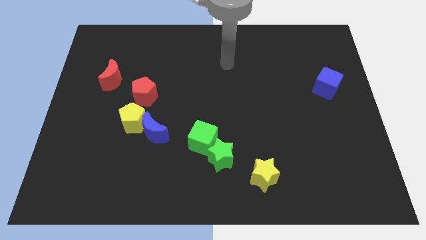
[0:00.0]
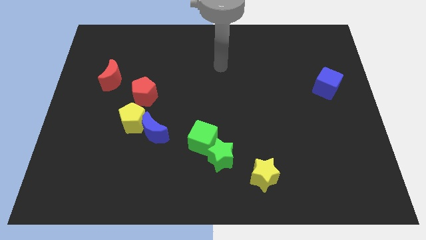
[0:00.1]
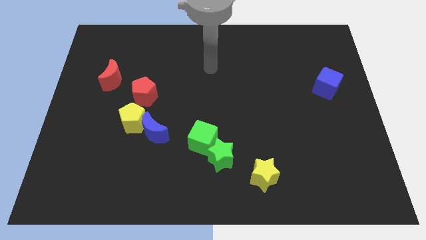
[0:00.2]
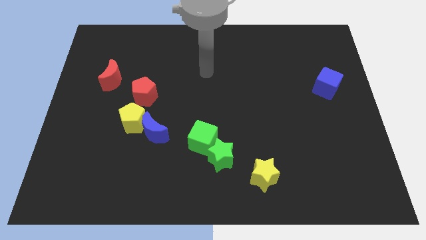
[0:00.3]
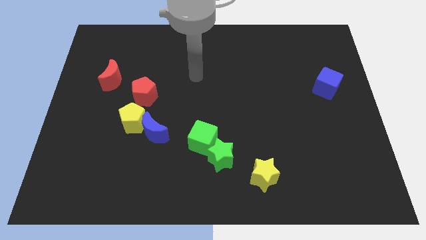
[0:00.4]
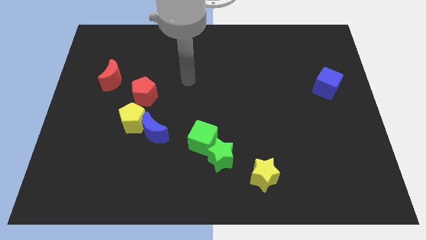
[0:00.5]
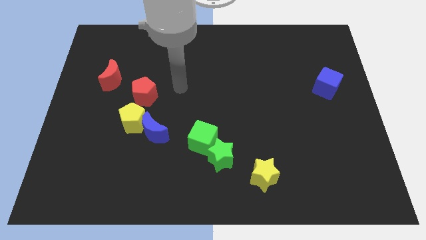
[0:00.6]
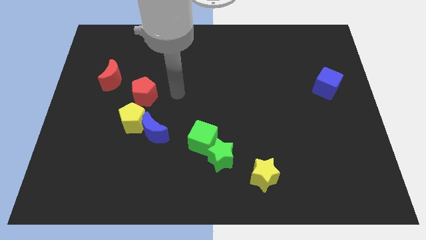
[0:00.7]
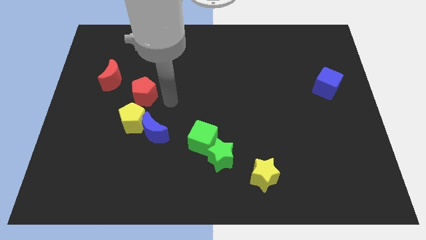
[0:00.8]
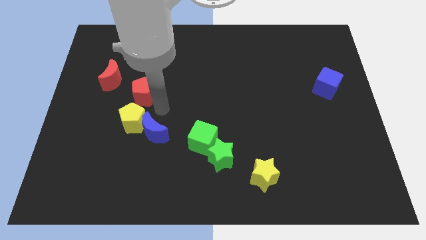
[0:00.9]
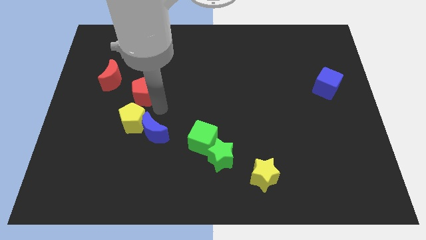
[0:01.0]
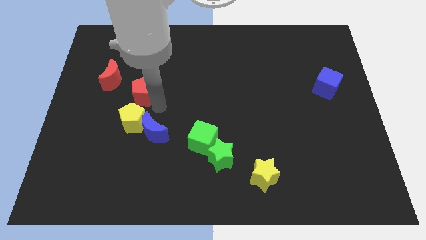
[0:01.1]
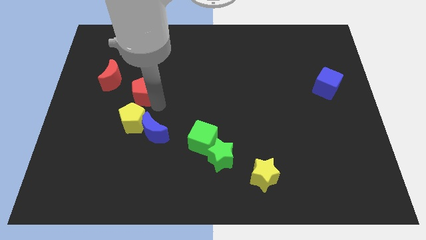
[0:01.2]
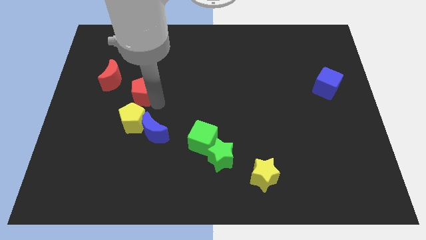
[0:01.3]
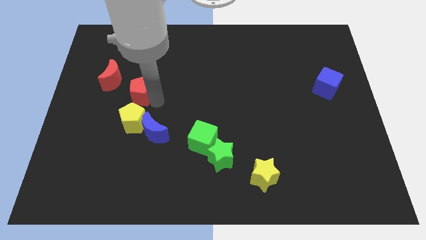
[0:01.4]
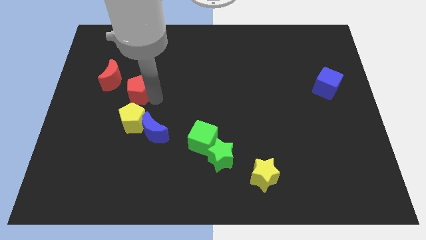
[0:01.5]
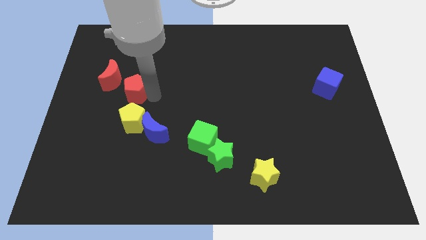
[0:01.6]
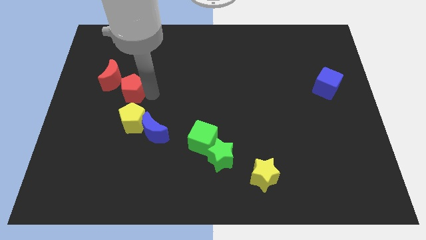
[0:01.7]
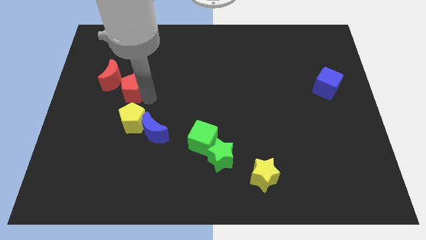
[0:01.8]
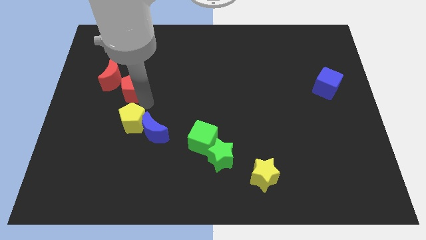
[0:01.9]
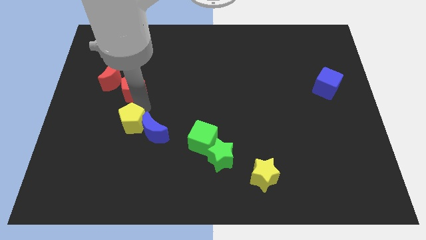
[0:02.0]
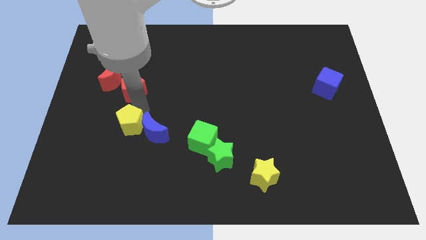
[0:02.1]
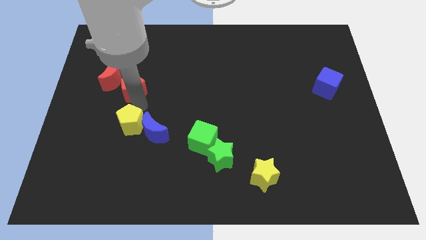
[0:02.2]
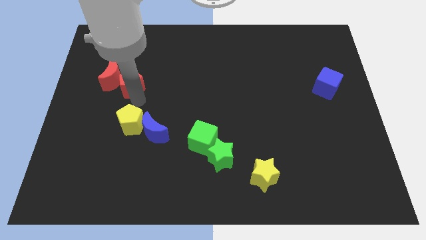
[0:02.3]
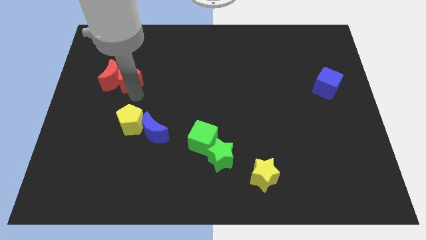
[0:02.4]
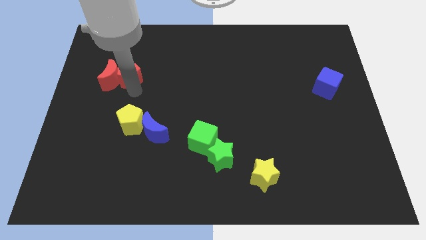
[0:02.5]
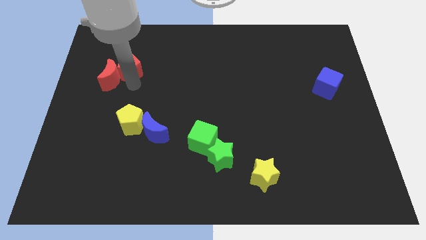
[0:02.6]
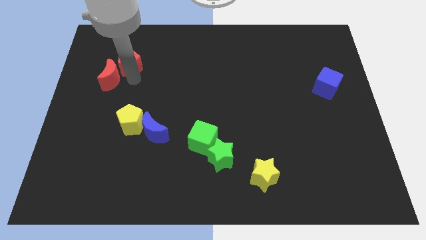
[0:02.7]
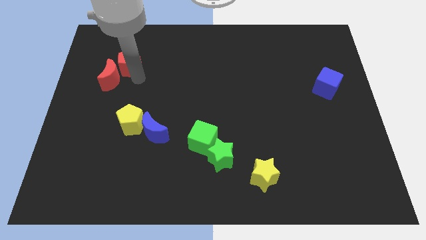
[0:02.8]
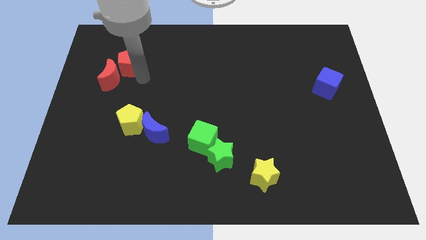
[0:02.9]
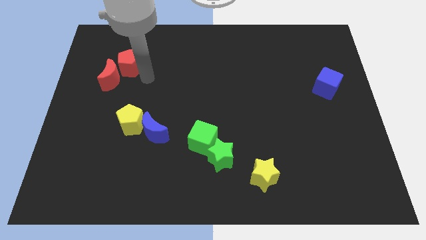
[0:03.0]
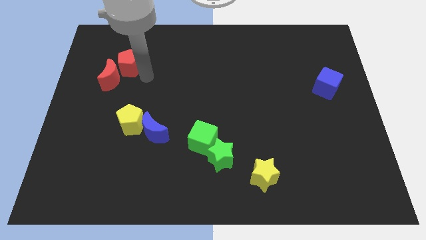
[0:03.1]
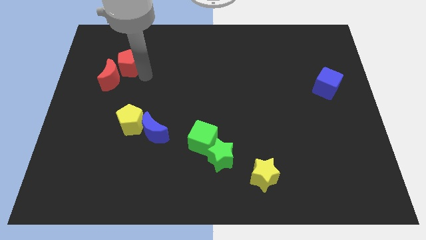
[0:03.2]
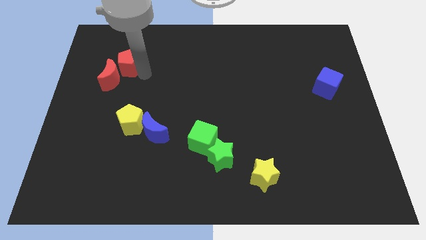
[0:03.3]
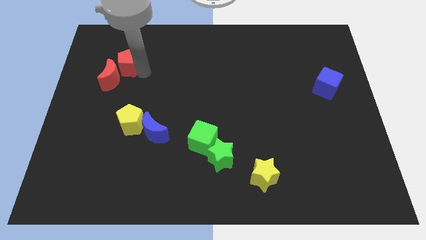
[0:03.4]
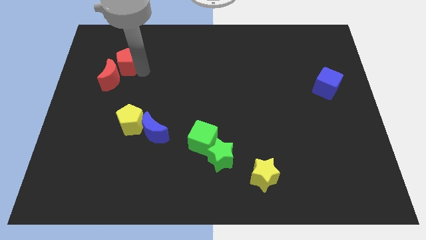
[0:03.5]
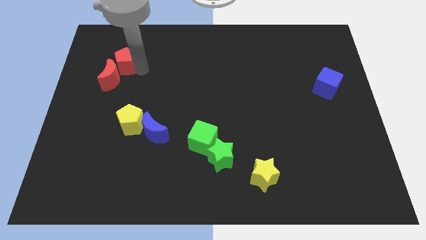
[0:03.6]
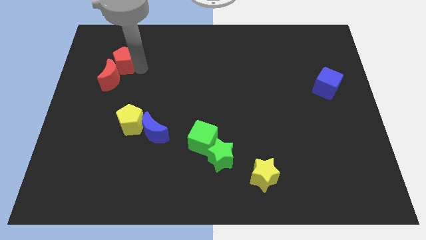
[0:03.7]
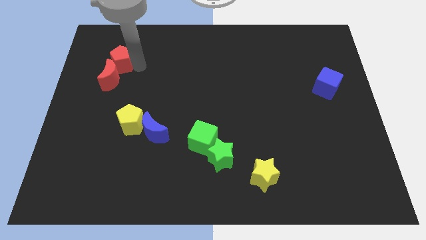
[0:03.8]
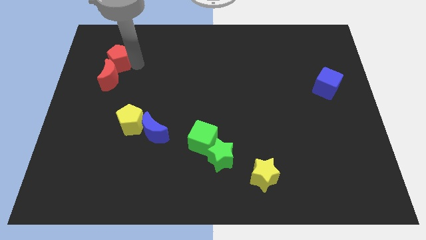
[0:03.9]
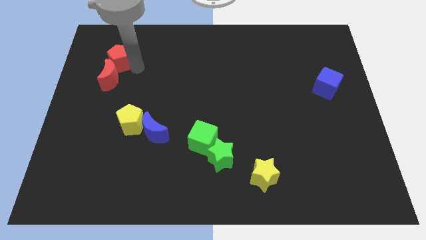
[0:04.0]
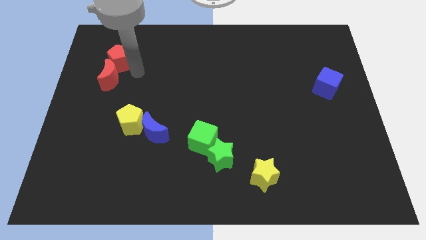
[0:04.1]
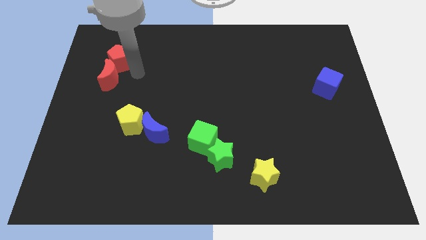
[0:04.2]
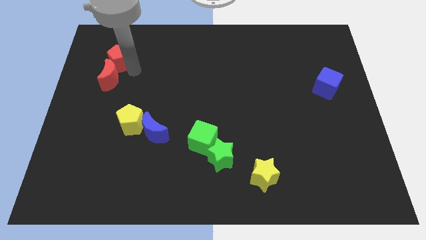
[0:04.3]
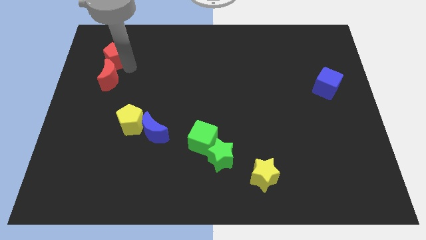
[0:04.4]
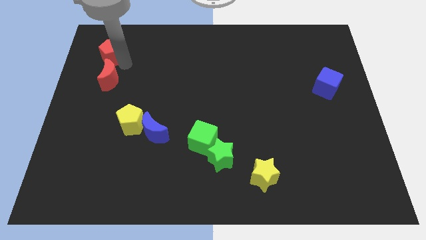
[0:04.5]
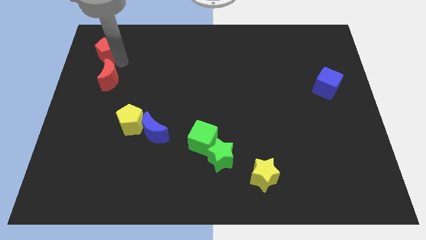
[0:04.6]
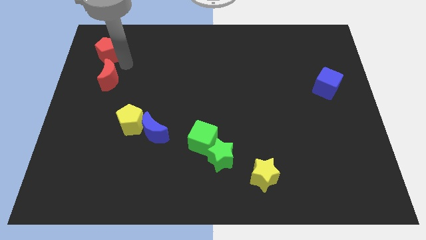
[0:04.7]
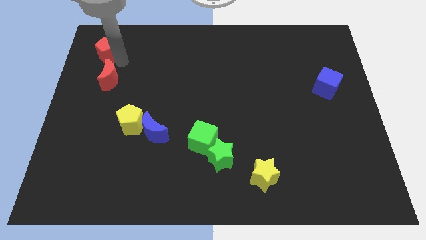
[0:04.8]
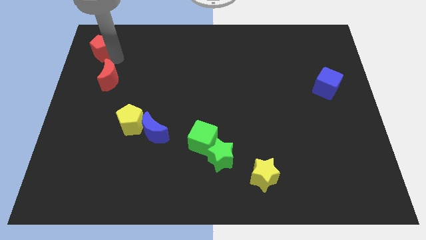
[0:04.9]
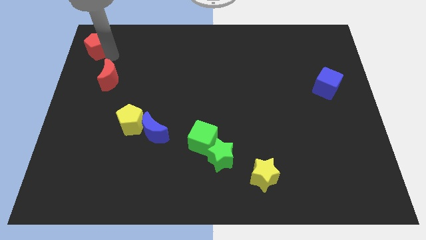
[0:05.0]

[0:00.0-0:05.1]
put the red pentagon to the upper left corner

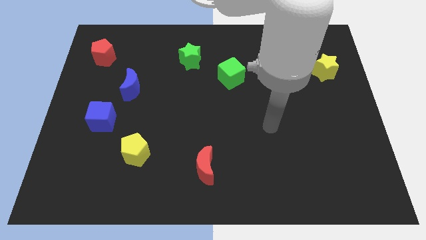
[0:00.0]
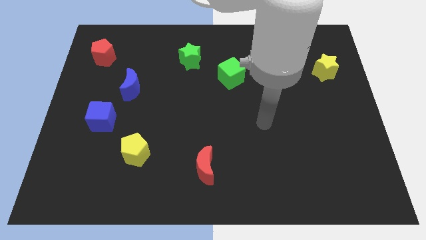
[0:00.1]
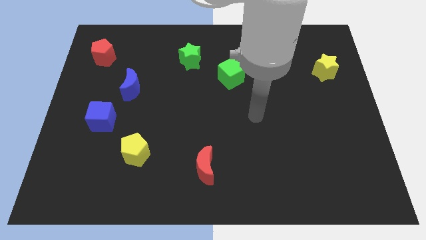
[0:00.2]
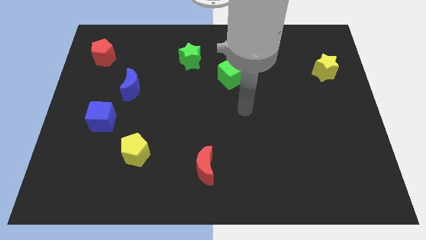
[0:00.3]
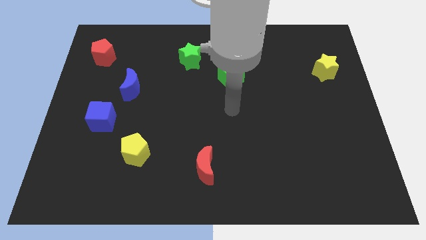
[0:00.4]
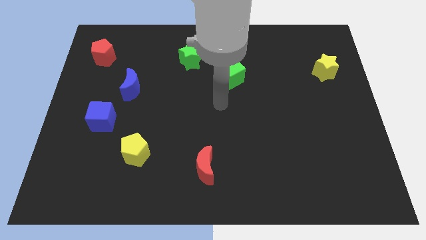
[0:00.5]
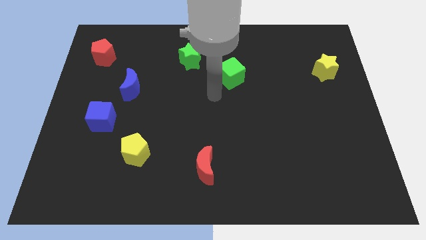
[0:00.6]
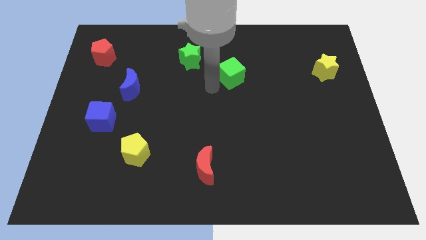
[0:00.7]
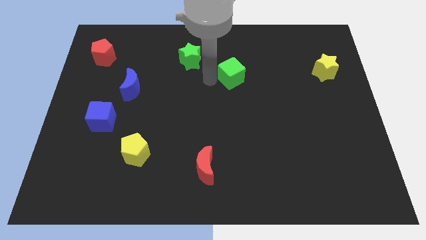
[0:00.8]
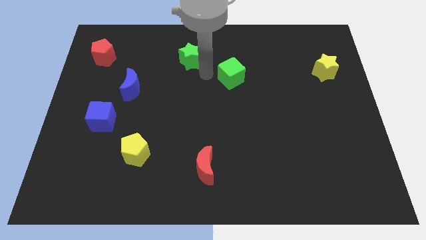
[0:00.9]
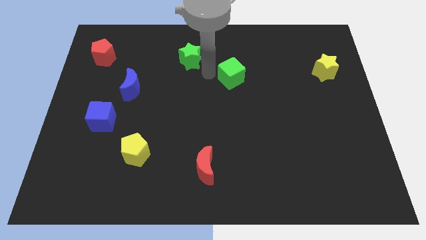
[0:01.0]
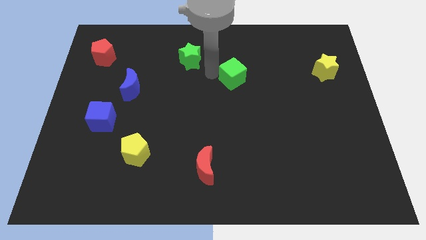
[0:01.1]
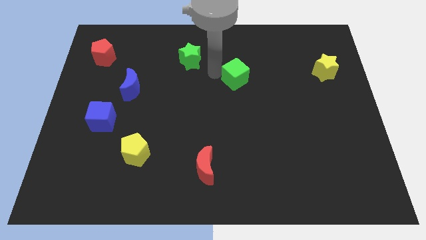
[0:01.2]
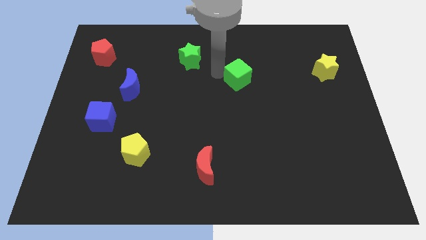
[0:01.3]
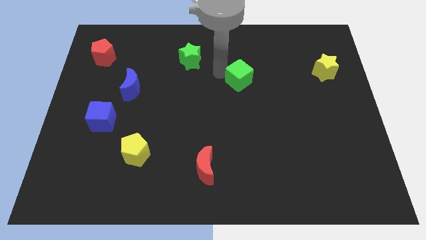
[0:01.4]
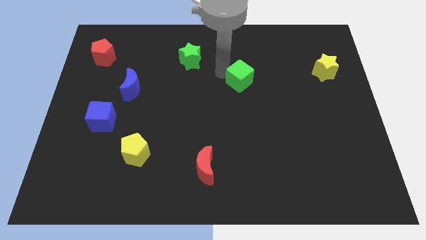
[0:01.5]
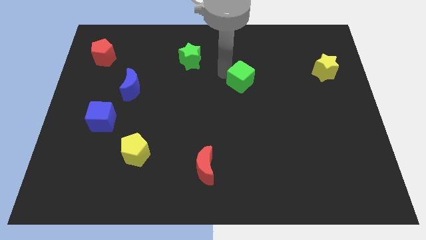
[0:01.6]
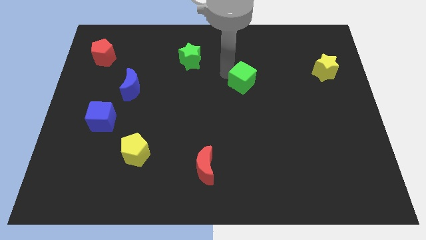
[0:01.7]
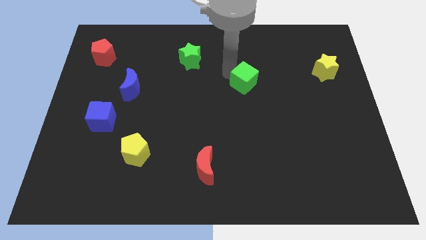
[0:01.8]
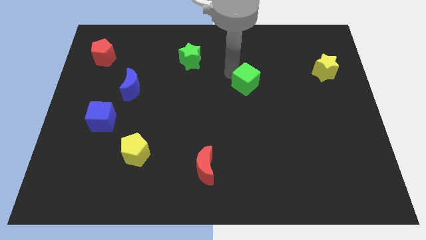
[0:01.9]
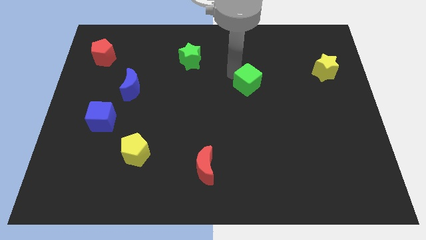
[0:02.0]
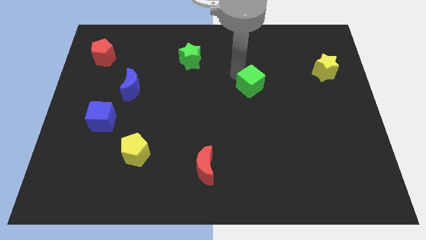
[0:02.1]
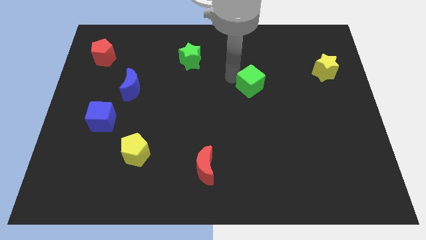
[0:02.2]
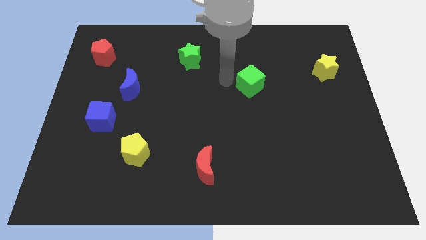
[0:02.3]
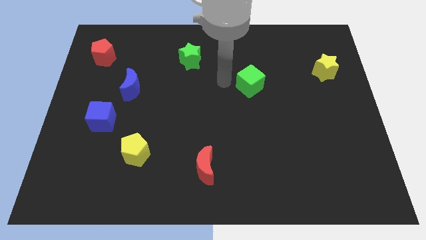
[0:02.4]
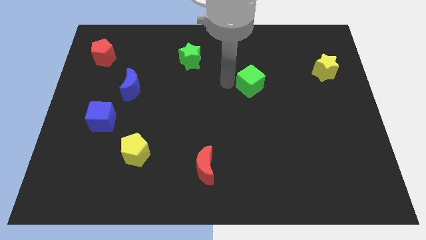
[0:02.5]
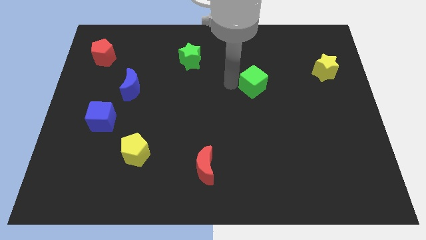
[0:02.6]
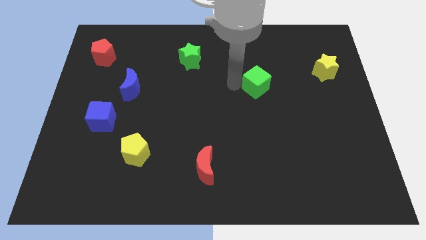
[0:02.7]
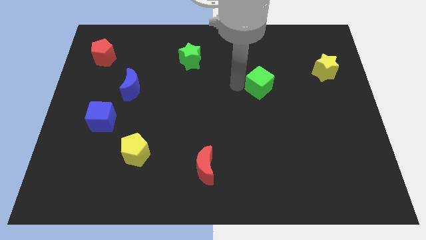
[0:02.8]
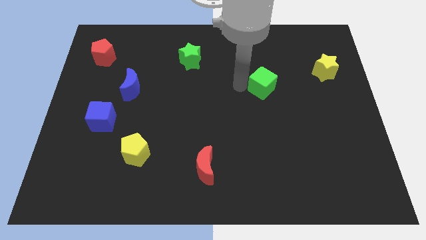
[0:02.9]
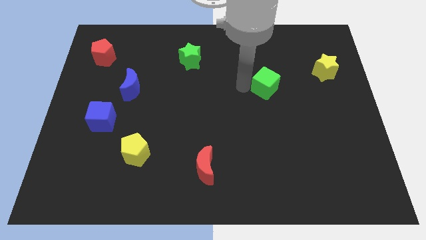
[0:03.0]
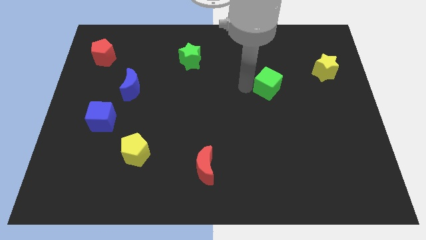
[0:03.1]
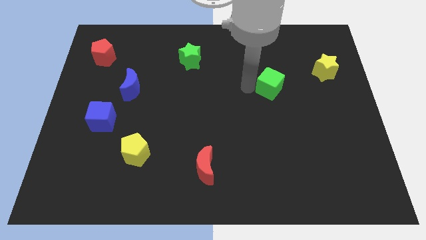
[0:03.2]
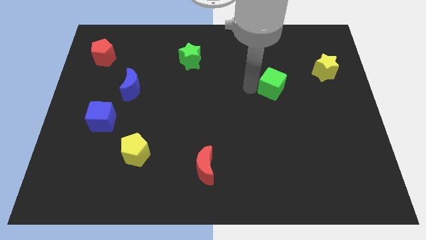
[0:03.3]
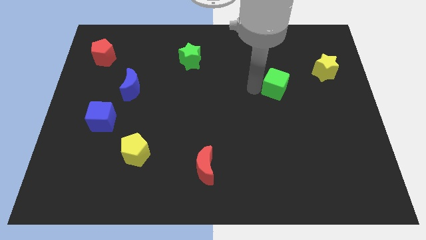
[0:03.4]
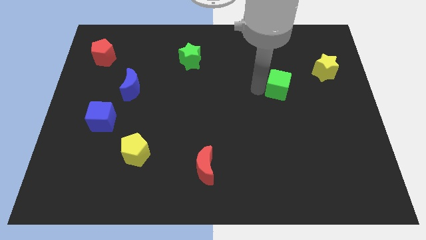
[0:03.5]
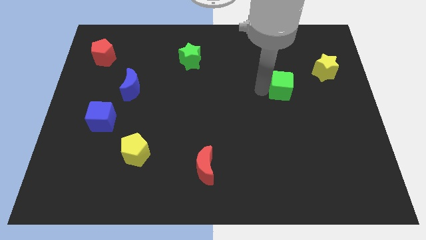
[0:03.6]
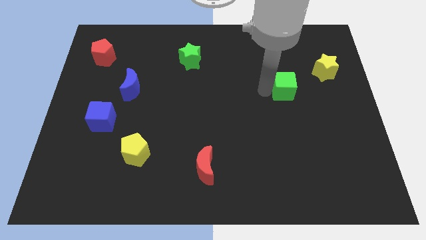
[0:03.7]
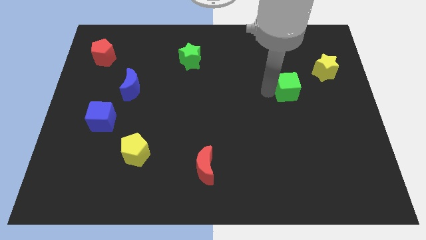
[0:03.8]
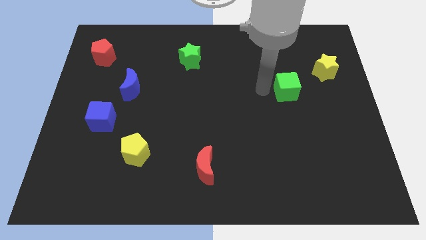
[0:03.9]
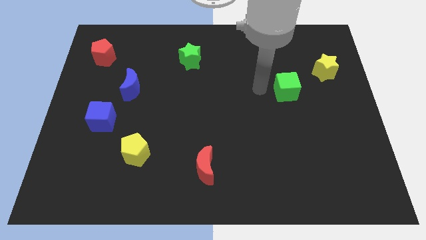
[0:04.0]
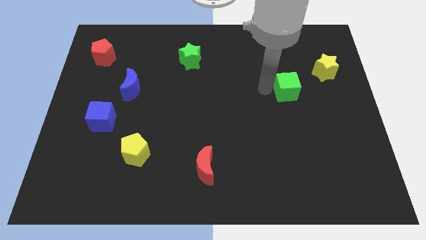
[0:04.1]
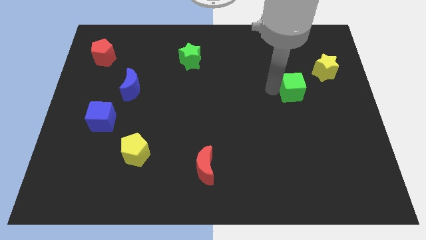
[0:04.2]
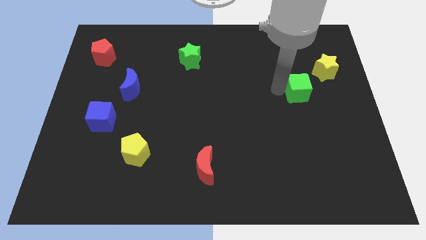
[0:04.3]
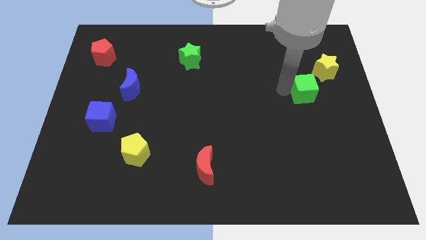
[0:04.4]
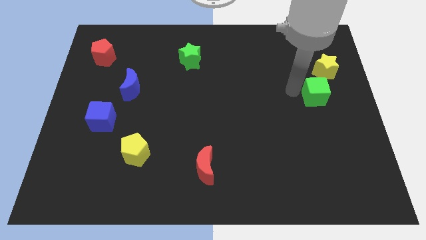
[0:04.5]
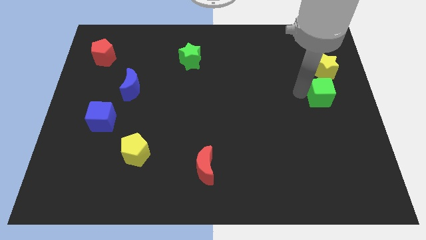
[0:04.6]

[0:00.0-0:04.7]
push the green cube to the center right
